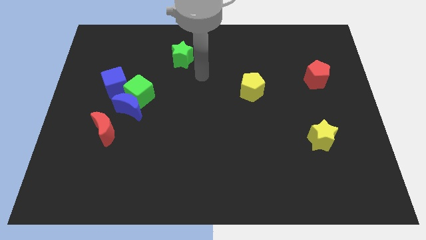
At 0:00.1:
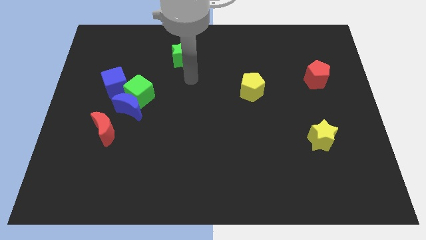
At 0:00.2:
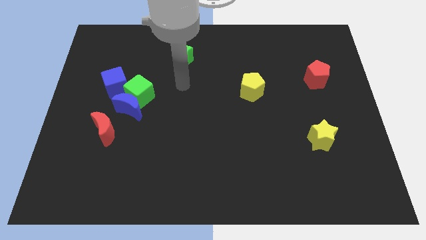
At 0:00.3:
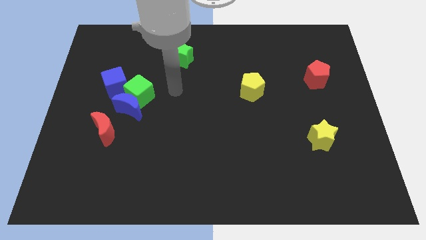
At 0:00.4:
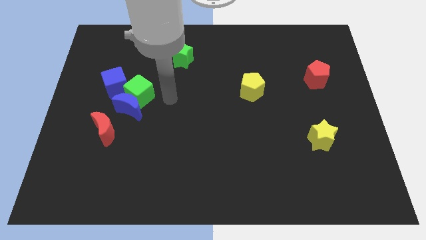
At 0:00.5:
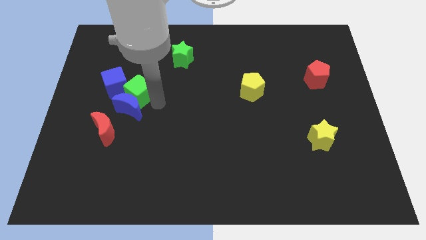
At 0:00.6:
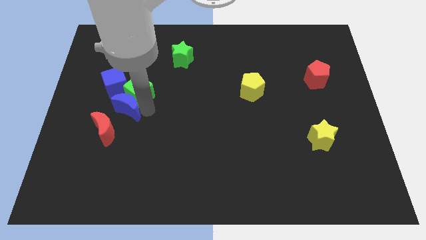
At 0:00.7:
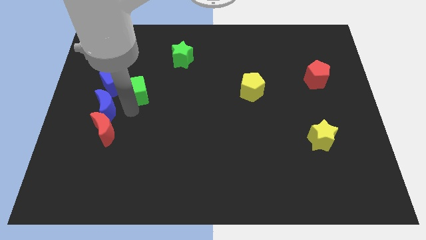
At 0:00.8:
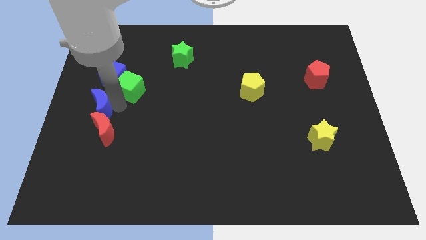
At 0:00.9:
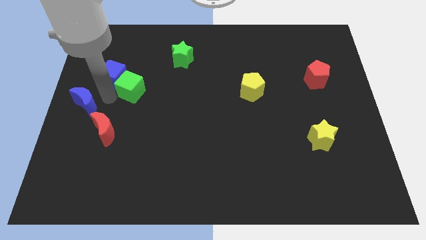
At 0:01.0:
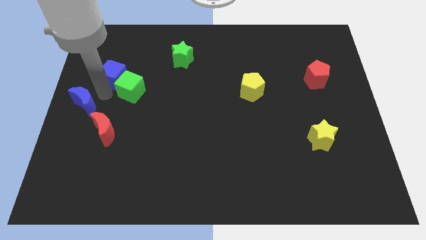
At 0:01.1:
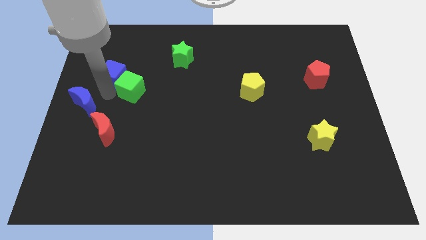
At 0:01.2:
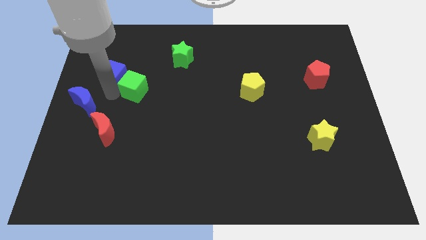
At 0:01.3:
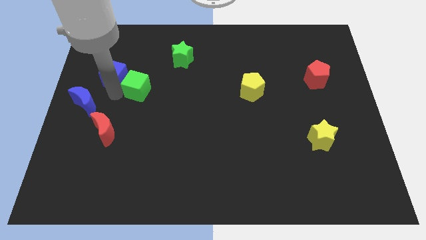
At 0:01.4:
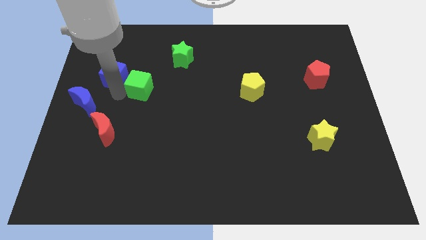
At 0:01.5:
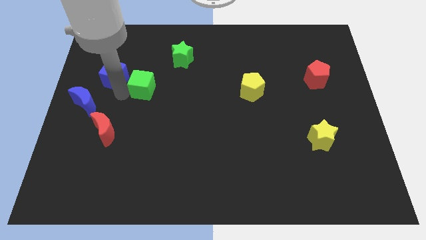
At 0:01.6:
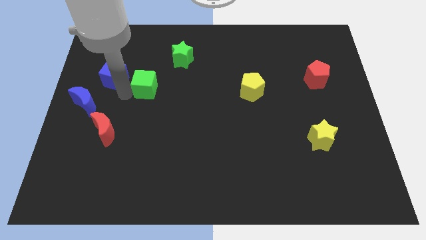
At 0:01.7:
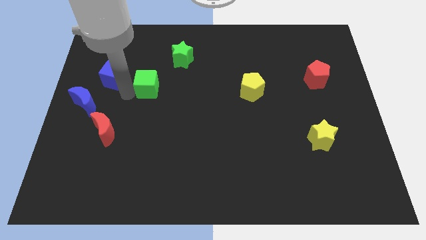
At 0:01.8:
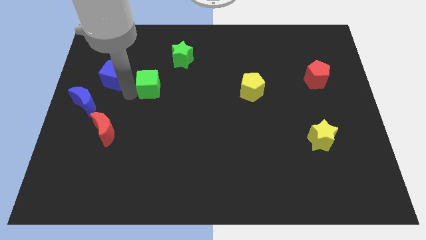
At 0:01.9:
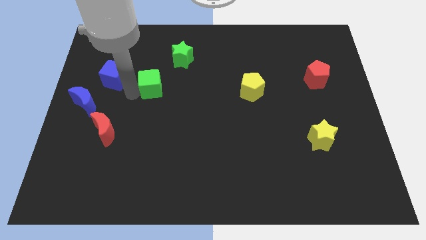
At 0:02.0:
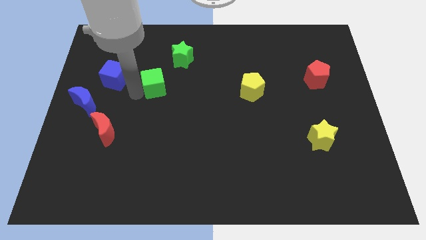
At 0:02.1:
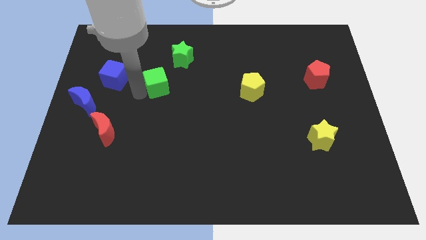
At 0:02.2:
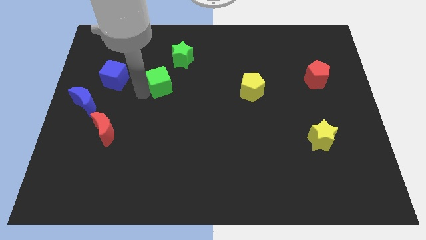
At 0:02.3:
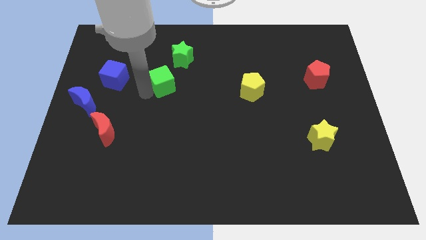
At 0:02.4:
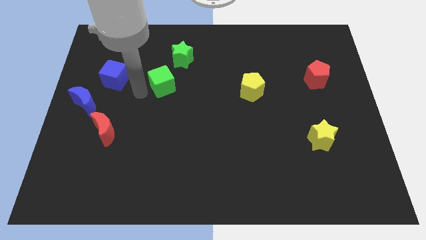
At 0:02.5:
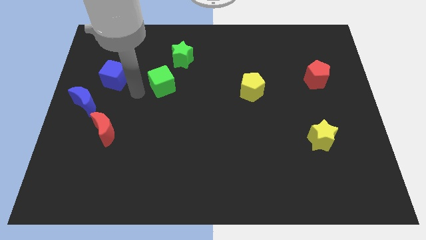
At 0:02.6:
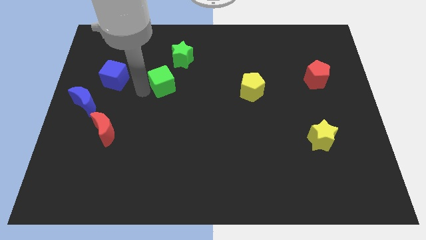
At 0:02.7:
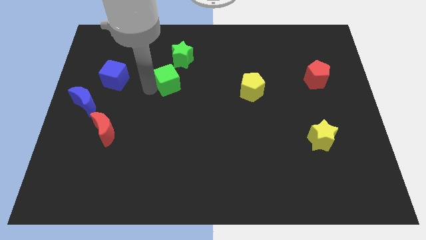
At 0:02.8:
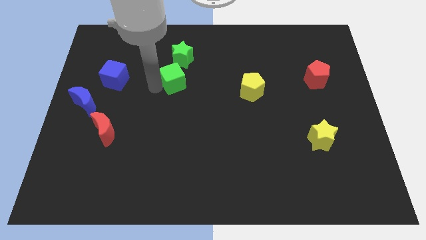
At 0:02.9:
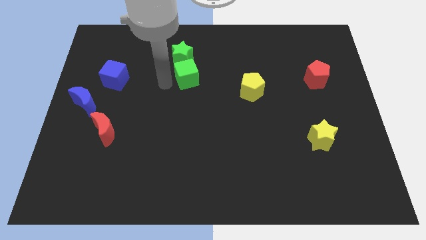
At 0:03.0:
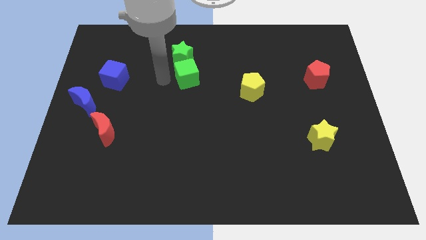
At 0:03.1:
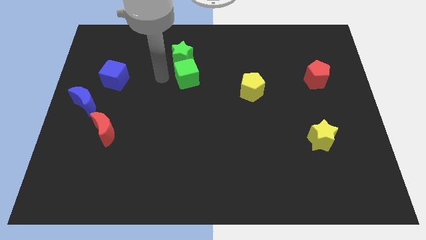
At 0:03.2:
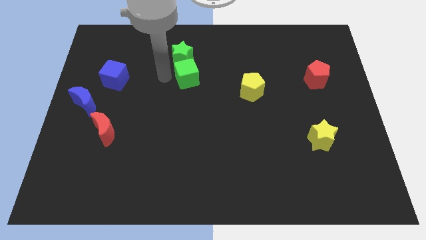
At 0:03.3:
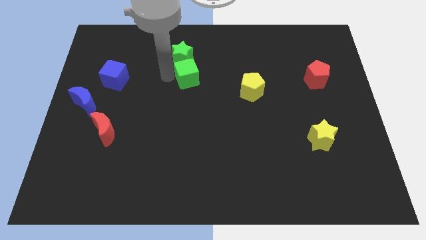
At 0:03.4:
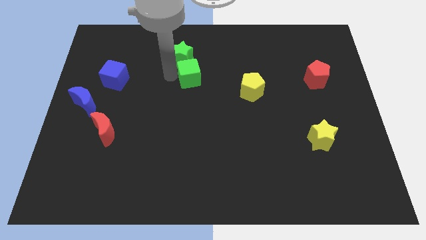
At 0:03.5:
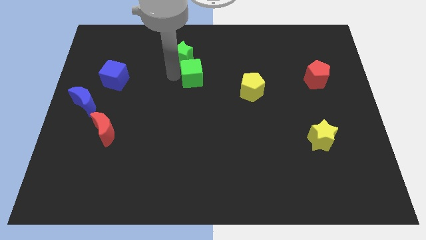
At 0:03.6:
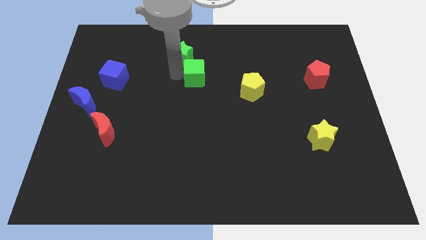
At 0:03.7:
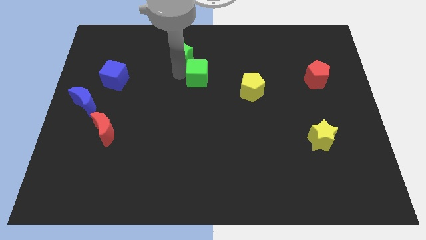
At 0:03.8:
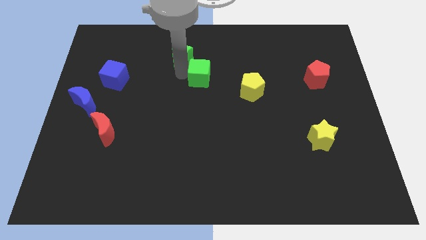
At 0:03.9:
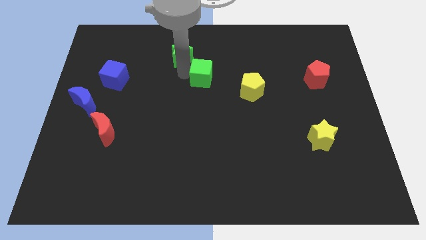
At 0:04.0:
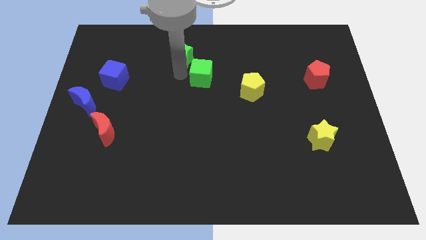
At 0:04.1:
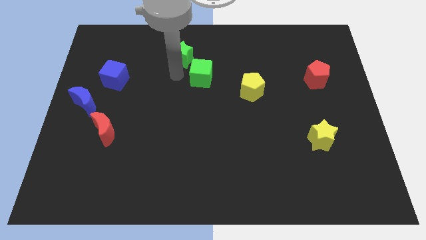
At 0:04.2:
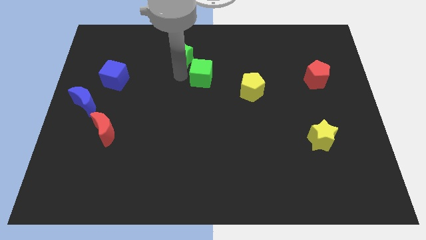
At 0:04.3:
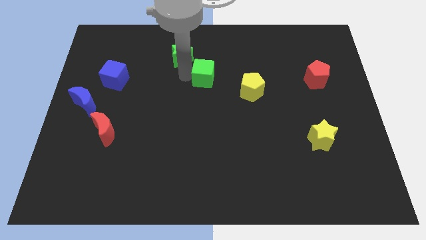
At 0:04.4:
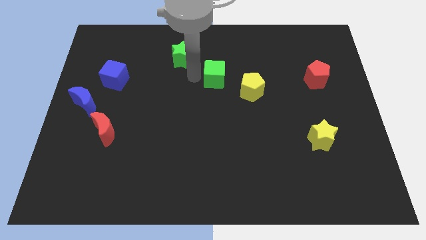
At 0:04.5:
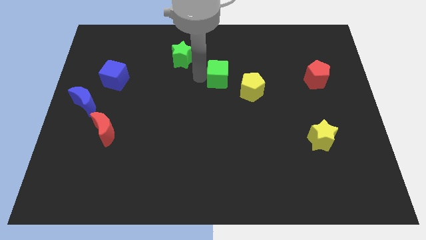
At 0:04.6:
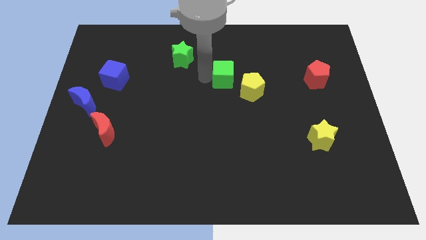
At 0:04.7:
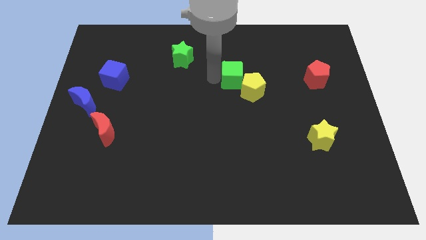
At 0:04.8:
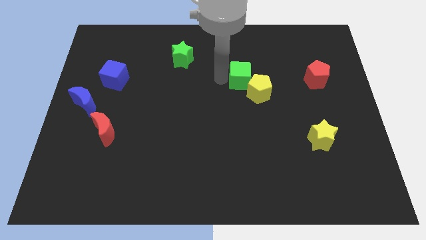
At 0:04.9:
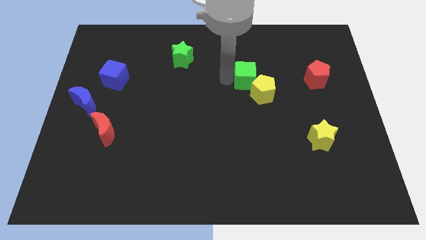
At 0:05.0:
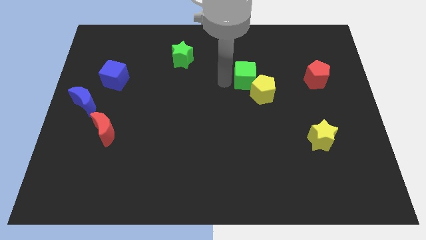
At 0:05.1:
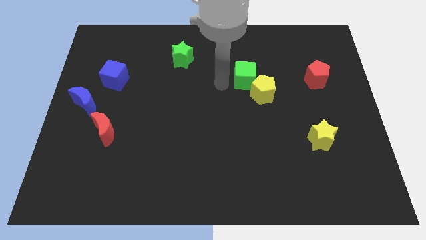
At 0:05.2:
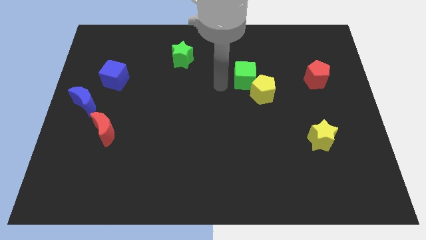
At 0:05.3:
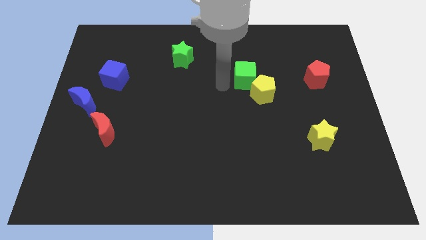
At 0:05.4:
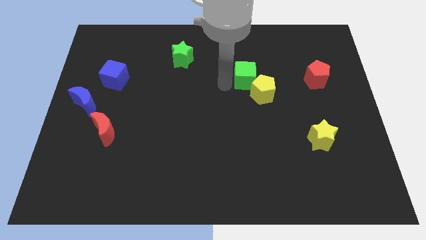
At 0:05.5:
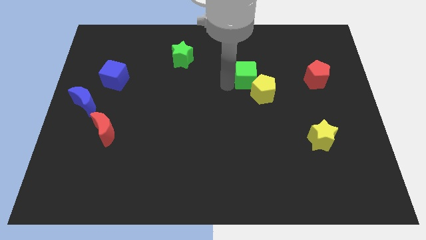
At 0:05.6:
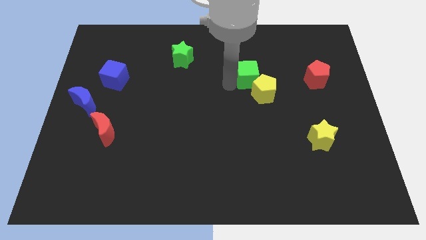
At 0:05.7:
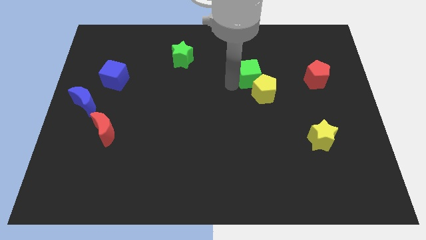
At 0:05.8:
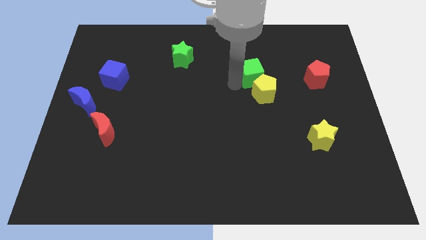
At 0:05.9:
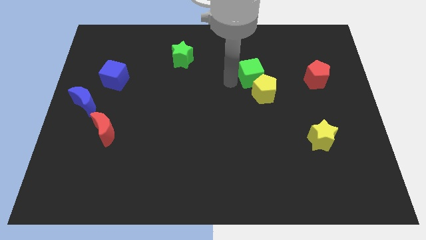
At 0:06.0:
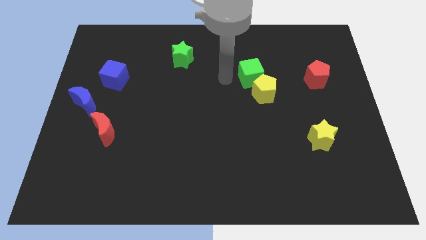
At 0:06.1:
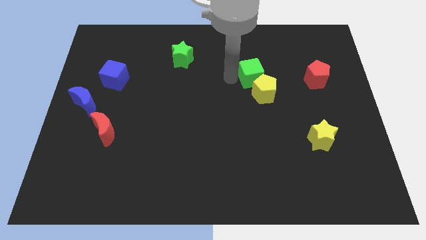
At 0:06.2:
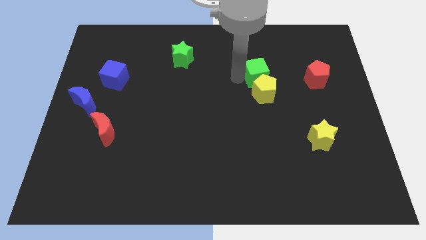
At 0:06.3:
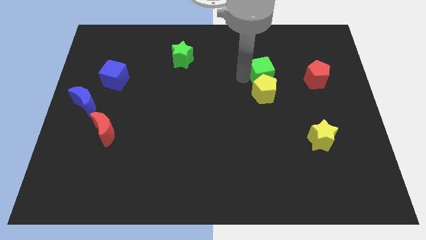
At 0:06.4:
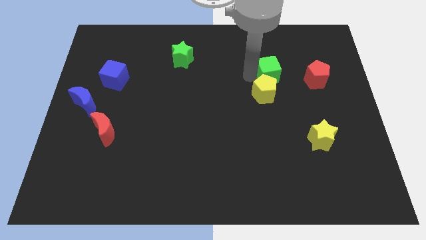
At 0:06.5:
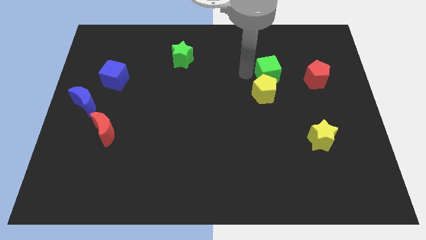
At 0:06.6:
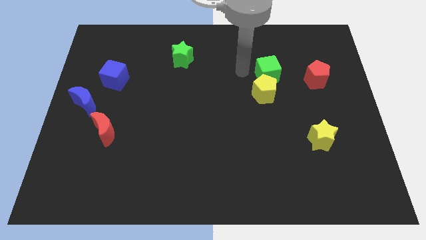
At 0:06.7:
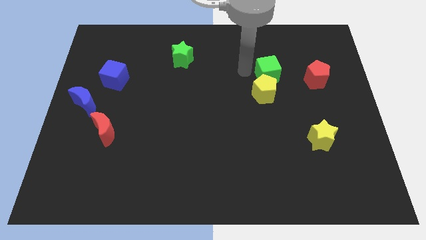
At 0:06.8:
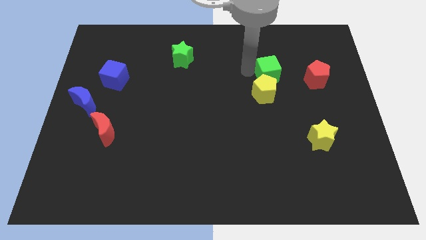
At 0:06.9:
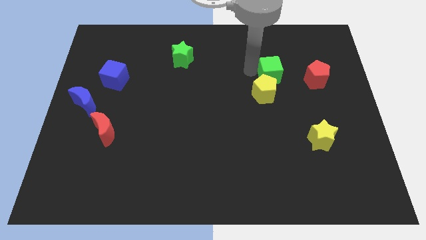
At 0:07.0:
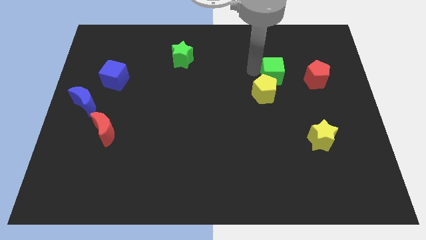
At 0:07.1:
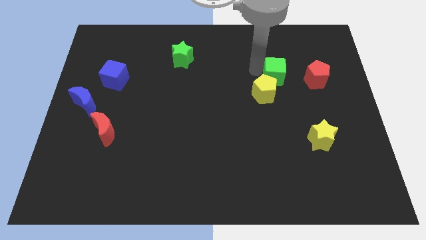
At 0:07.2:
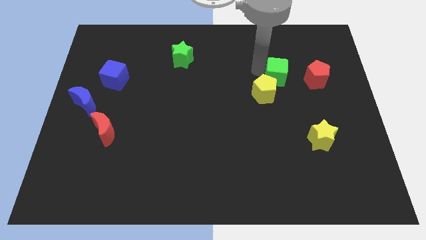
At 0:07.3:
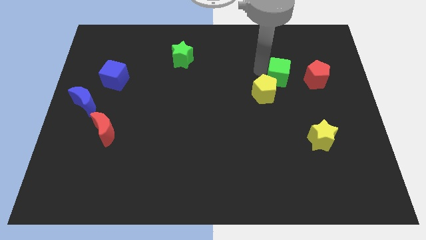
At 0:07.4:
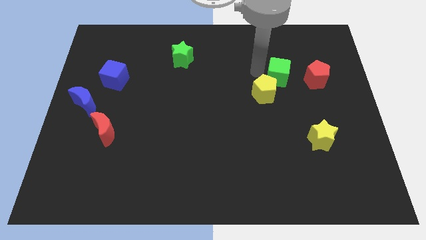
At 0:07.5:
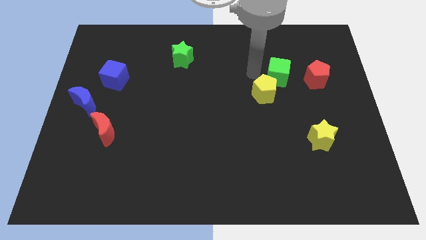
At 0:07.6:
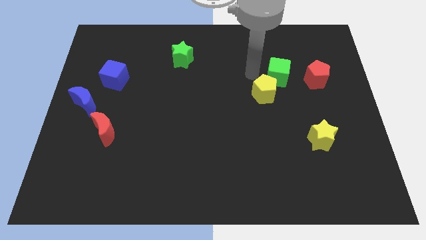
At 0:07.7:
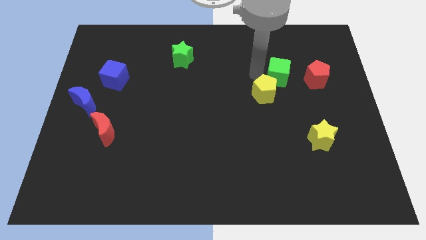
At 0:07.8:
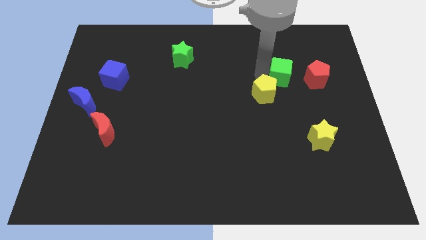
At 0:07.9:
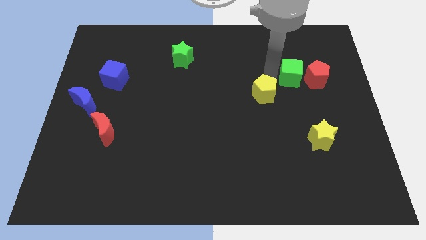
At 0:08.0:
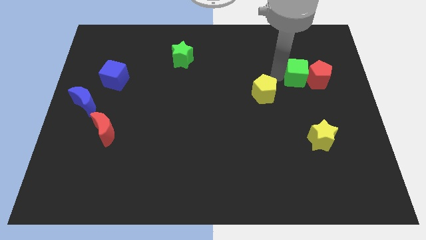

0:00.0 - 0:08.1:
slide the green cube close to the red pentagon
